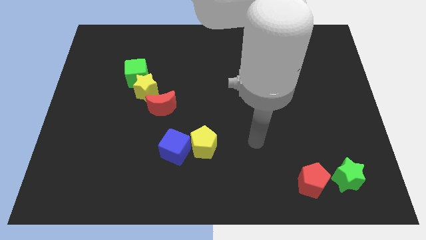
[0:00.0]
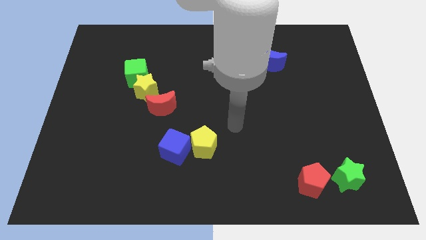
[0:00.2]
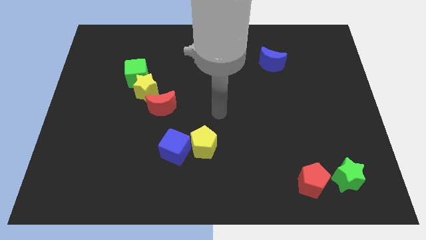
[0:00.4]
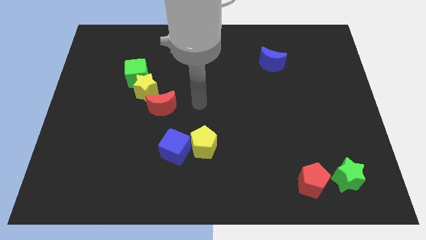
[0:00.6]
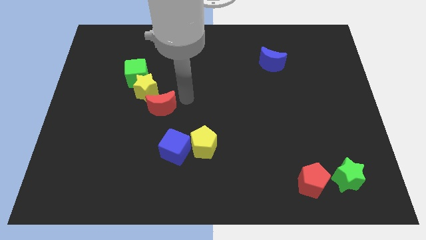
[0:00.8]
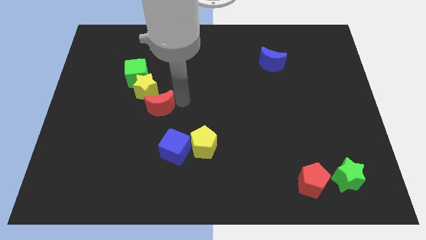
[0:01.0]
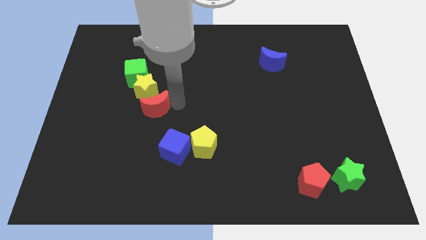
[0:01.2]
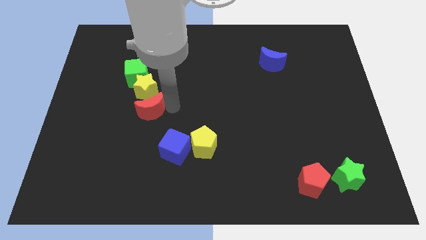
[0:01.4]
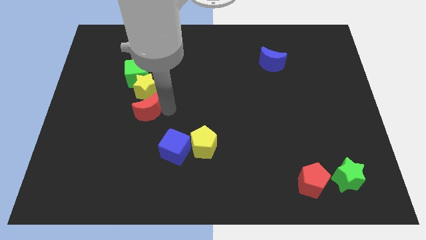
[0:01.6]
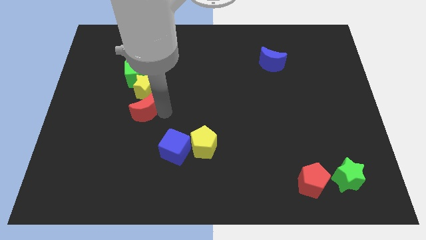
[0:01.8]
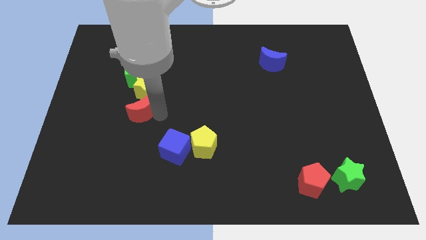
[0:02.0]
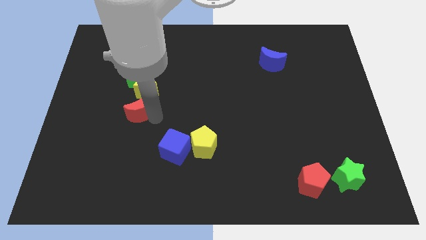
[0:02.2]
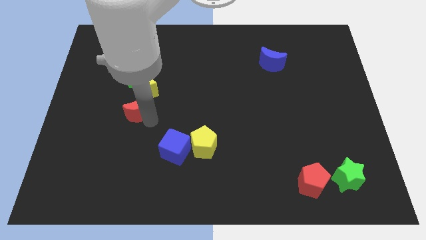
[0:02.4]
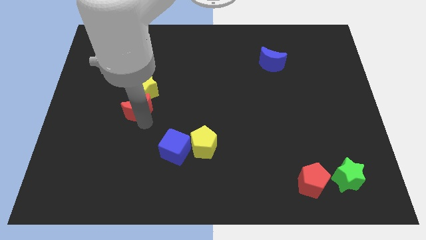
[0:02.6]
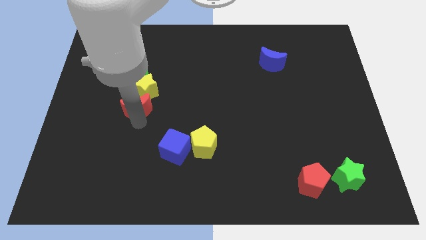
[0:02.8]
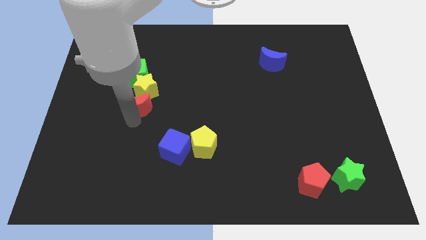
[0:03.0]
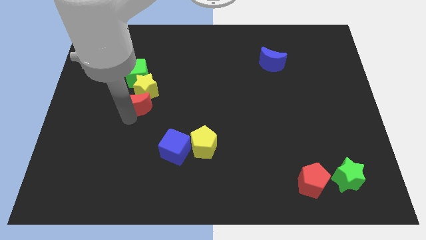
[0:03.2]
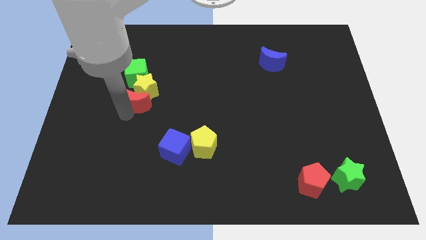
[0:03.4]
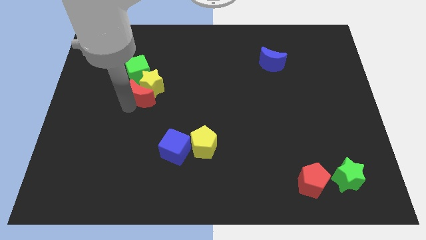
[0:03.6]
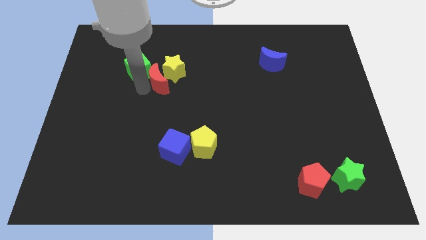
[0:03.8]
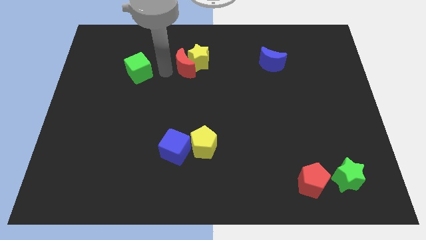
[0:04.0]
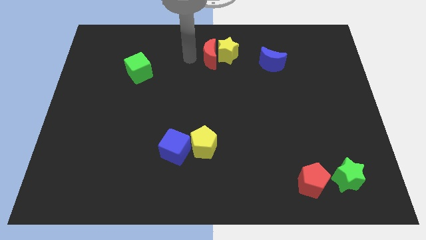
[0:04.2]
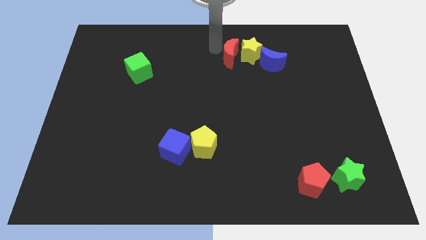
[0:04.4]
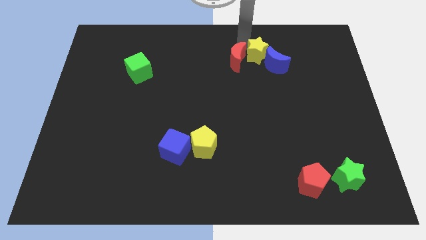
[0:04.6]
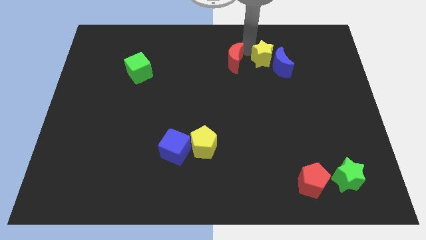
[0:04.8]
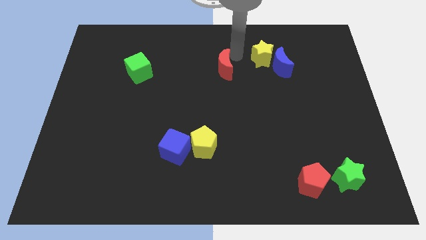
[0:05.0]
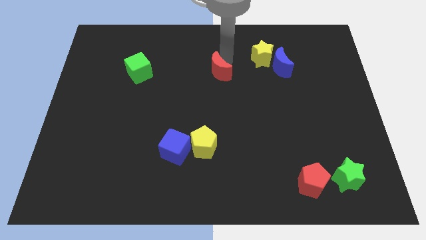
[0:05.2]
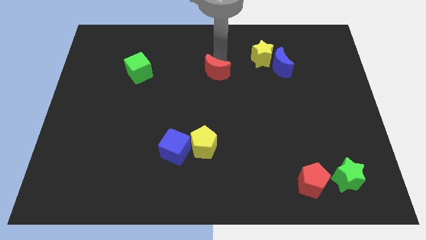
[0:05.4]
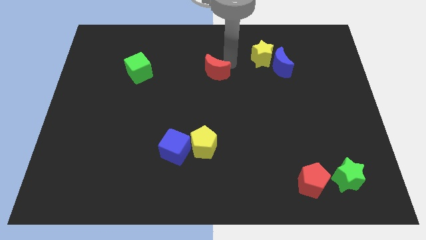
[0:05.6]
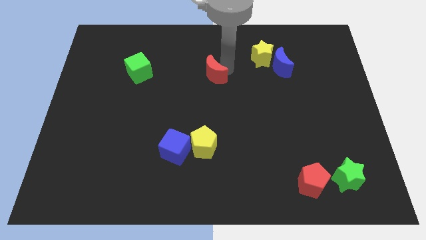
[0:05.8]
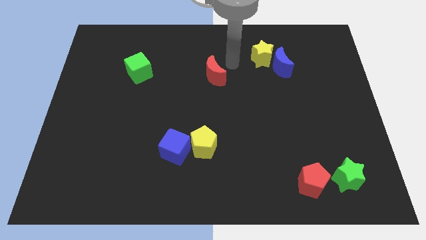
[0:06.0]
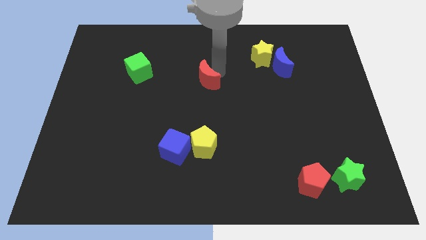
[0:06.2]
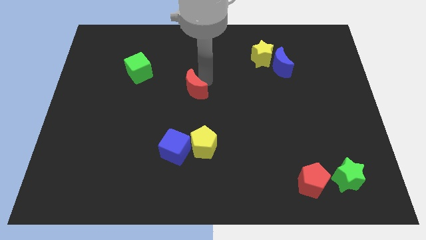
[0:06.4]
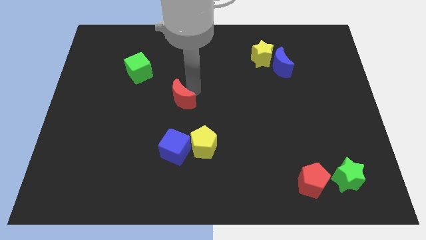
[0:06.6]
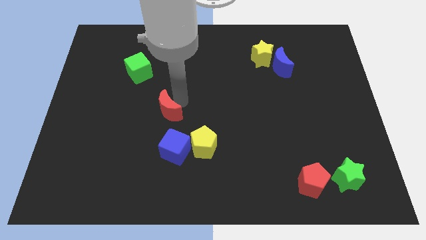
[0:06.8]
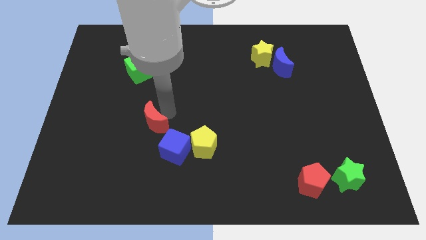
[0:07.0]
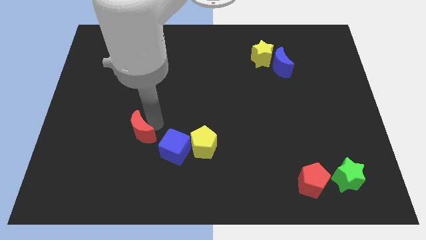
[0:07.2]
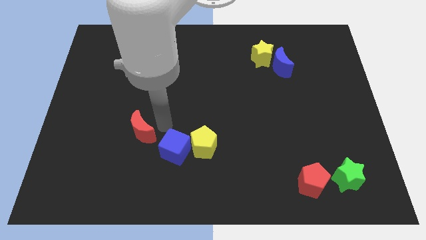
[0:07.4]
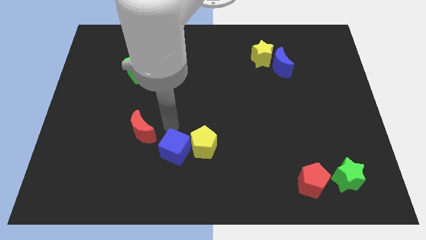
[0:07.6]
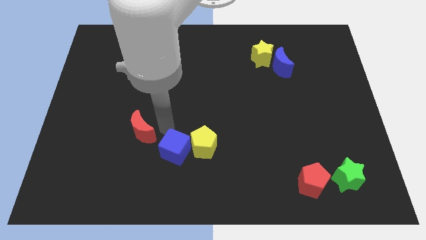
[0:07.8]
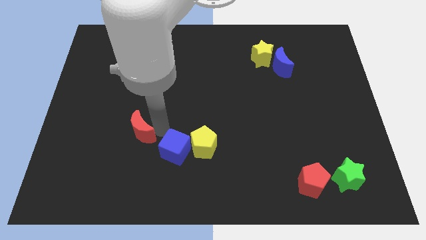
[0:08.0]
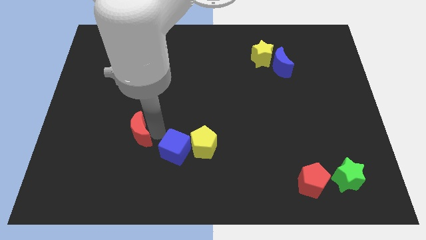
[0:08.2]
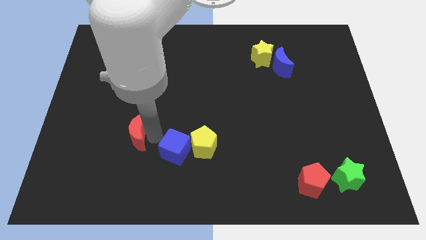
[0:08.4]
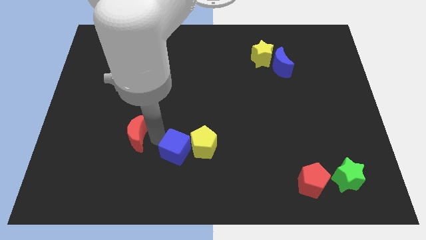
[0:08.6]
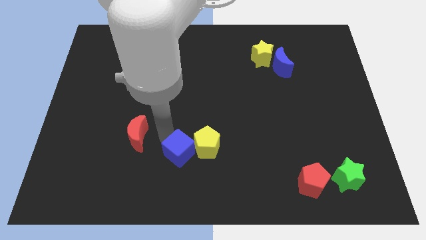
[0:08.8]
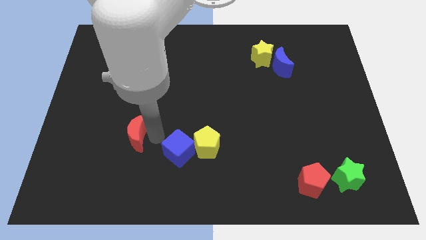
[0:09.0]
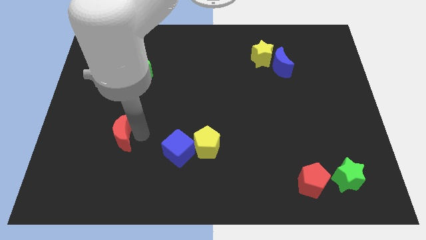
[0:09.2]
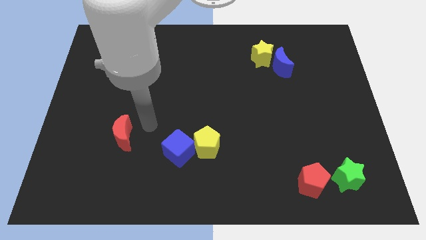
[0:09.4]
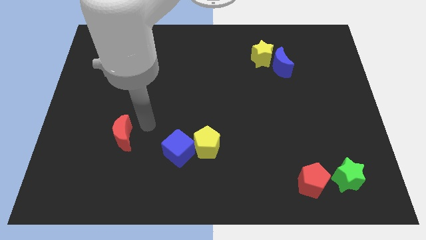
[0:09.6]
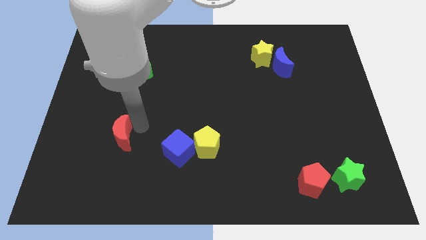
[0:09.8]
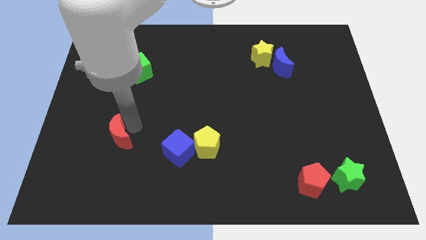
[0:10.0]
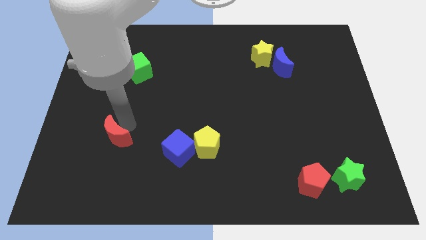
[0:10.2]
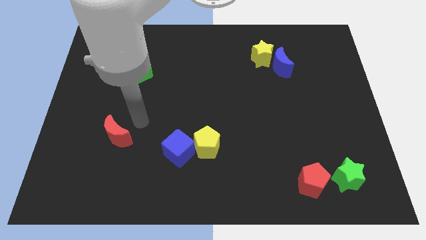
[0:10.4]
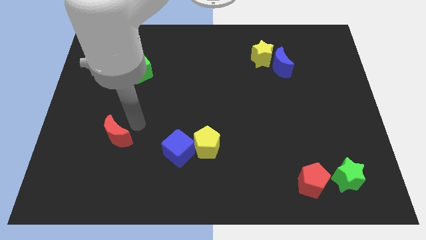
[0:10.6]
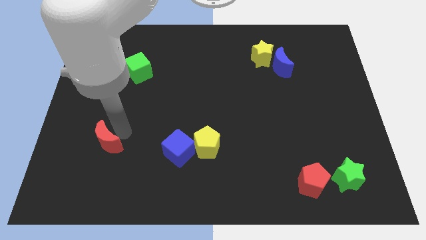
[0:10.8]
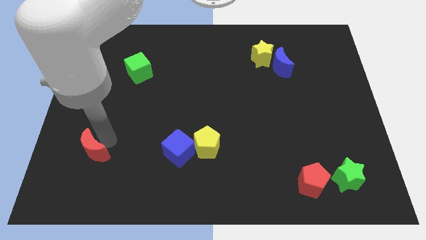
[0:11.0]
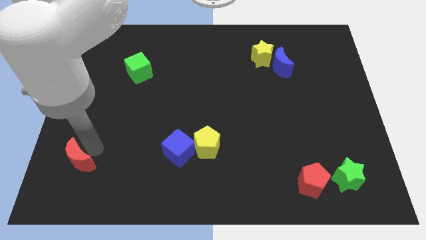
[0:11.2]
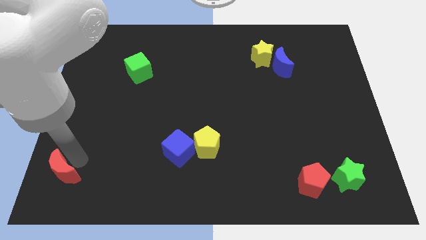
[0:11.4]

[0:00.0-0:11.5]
push the red moon to the bottom left of the board

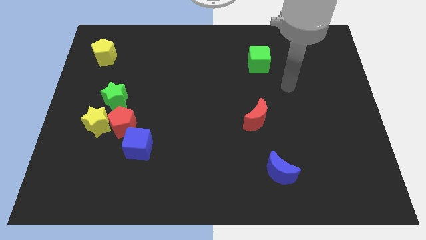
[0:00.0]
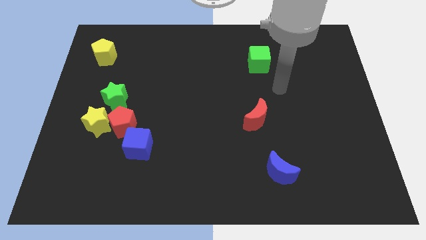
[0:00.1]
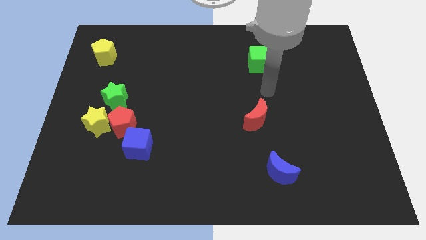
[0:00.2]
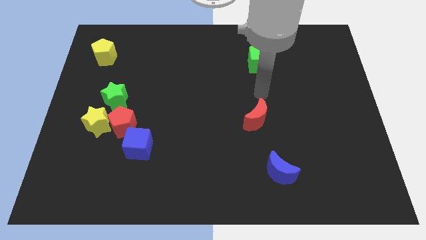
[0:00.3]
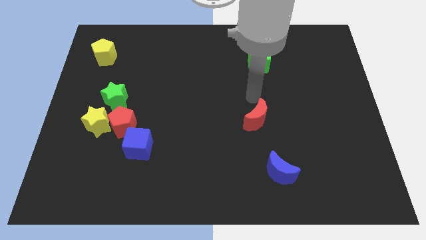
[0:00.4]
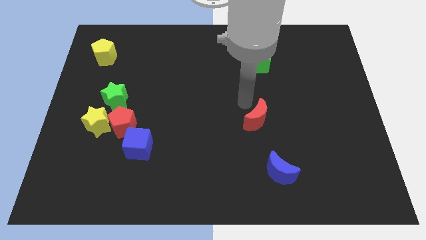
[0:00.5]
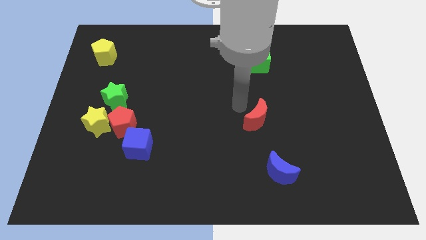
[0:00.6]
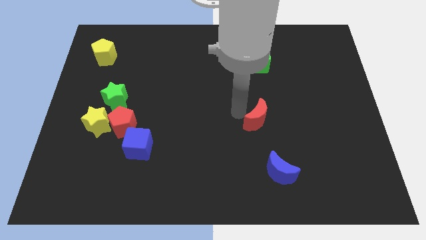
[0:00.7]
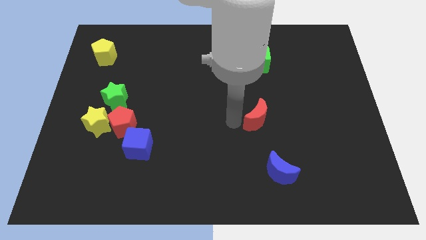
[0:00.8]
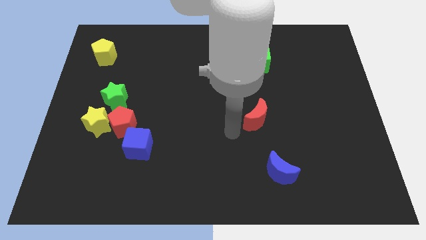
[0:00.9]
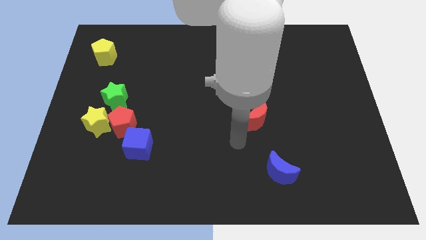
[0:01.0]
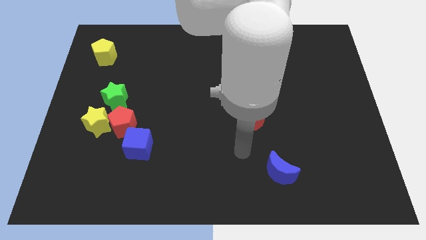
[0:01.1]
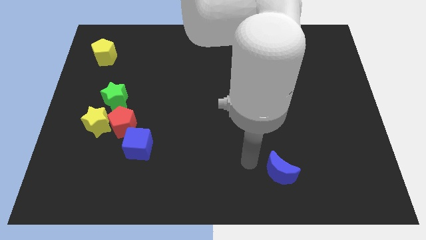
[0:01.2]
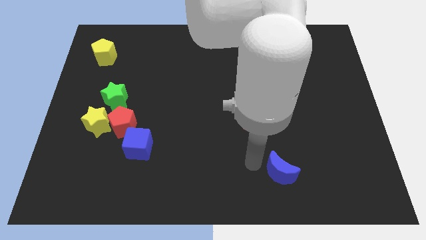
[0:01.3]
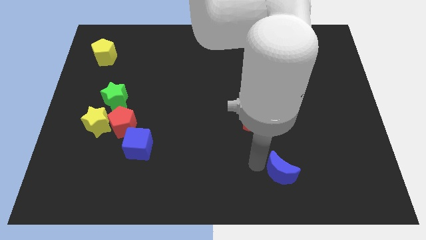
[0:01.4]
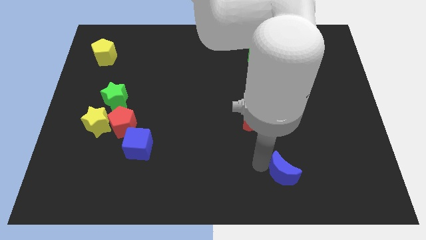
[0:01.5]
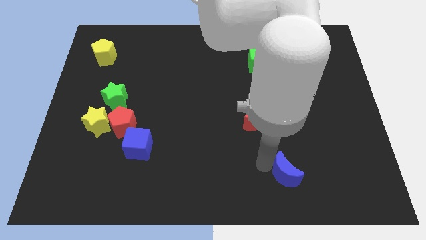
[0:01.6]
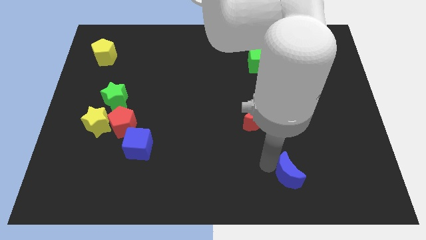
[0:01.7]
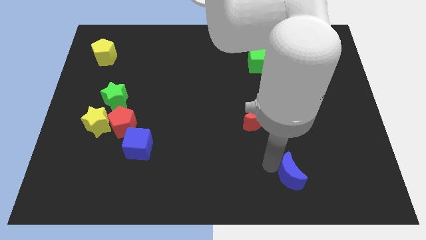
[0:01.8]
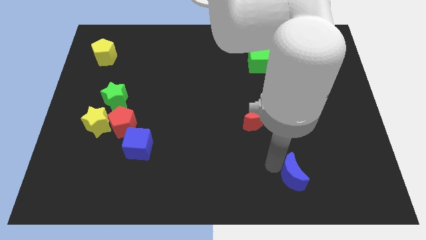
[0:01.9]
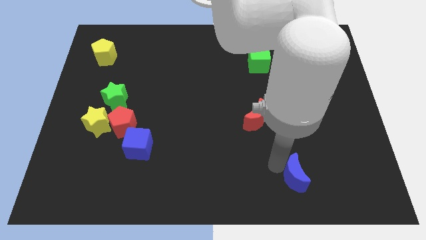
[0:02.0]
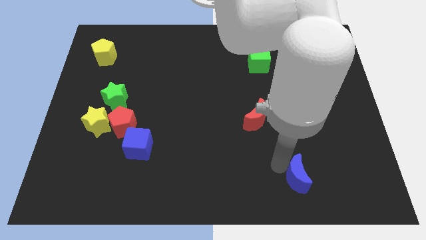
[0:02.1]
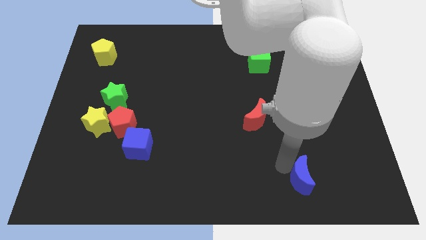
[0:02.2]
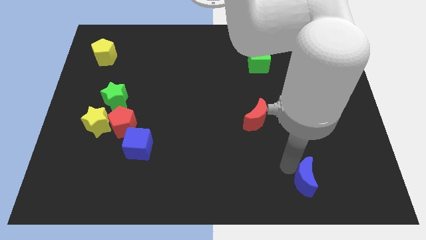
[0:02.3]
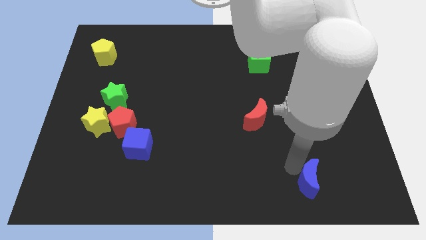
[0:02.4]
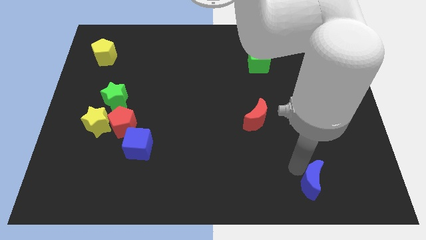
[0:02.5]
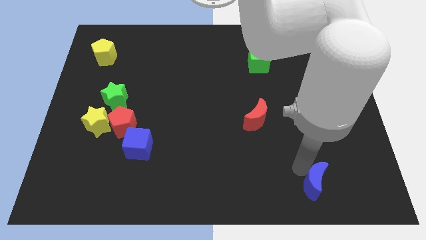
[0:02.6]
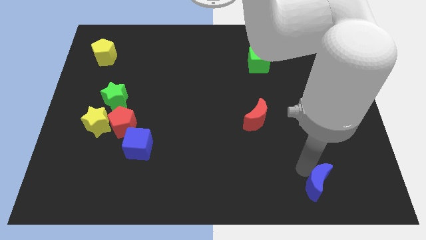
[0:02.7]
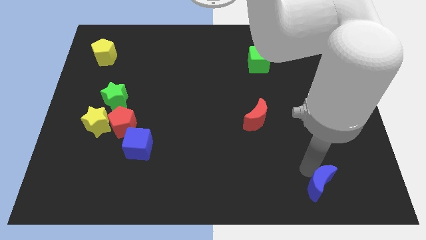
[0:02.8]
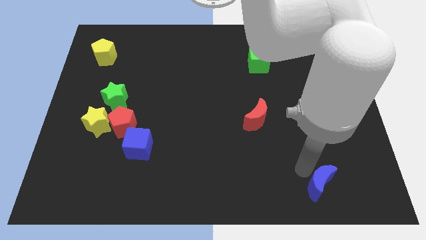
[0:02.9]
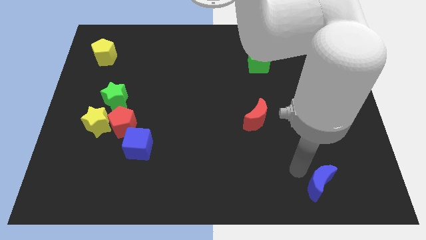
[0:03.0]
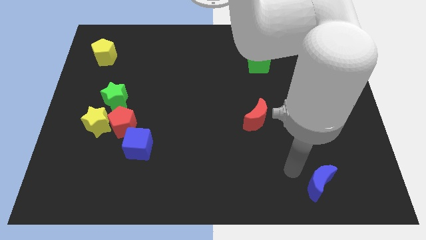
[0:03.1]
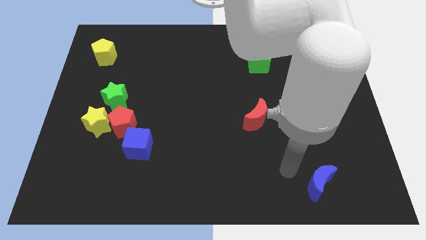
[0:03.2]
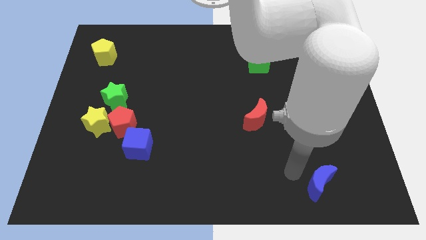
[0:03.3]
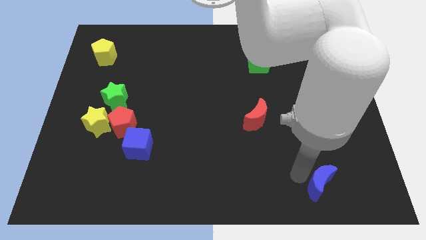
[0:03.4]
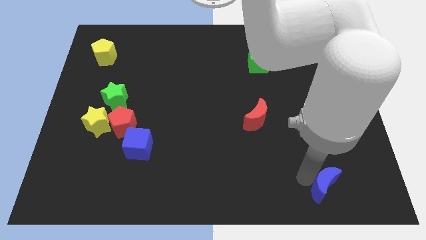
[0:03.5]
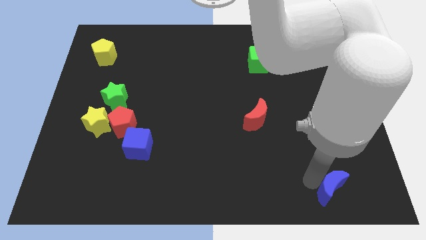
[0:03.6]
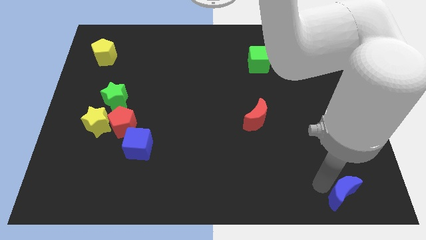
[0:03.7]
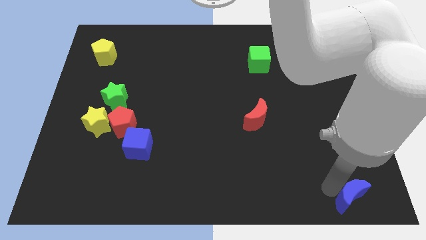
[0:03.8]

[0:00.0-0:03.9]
push the blue moon to the bottom right of the board
